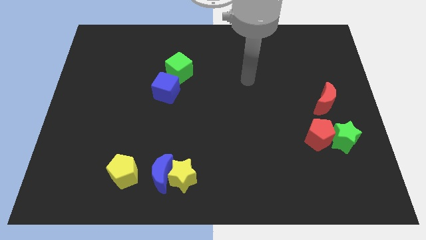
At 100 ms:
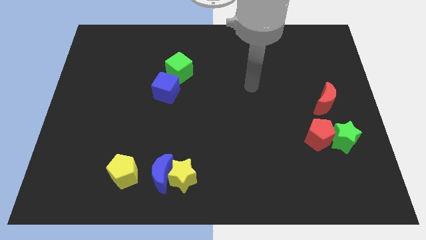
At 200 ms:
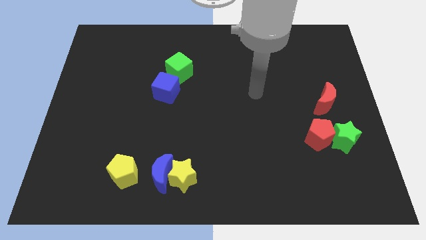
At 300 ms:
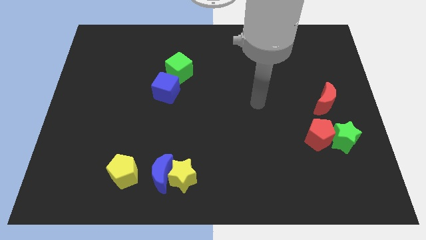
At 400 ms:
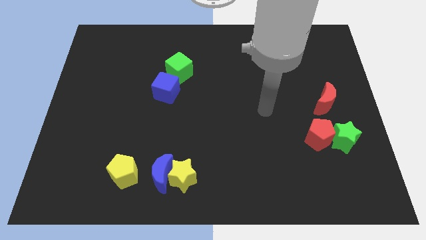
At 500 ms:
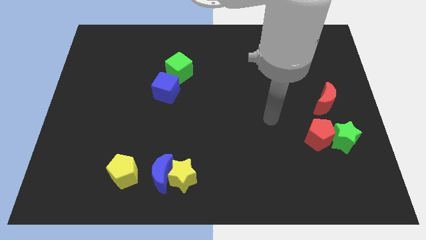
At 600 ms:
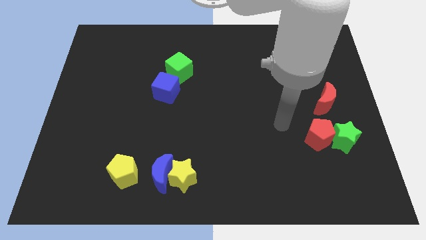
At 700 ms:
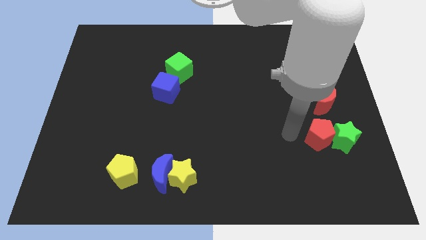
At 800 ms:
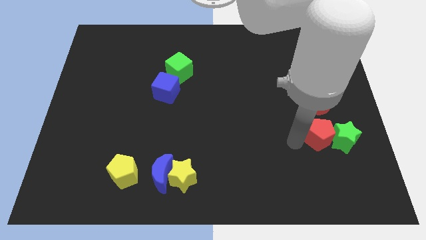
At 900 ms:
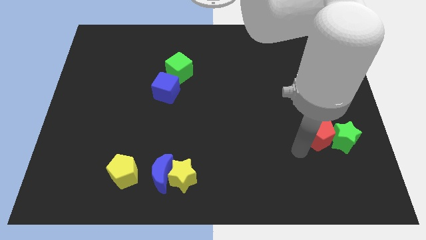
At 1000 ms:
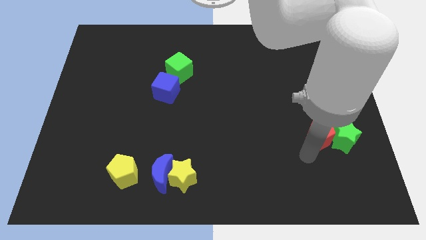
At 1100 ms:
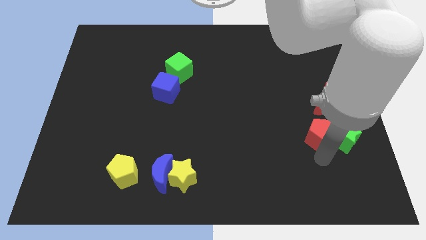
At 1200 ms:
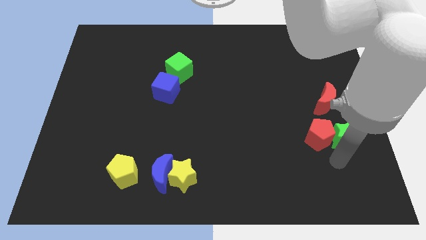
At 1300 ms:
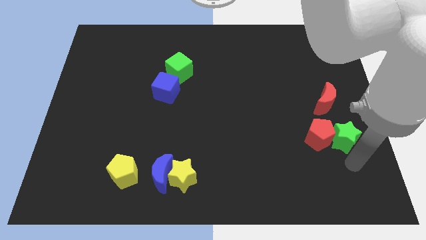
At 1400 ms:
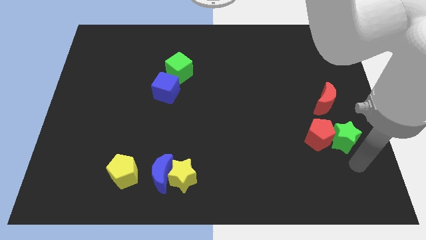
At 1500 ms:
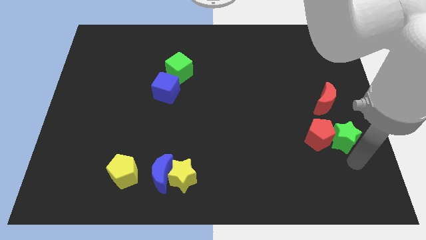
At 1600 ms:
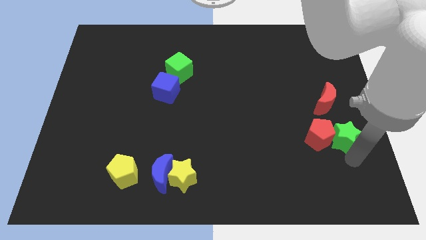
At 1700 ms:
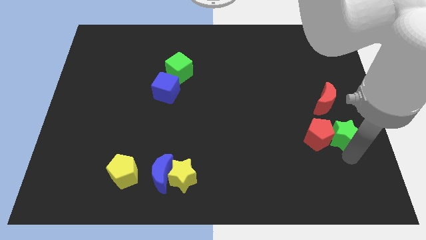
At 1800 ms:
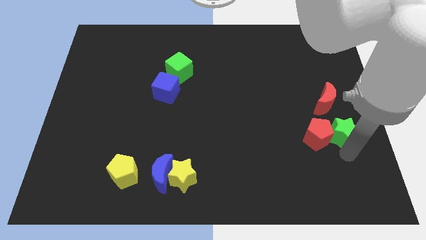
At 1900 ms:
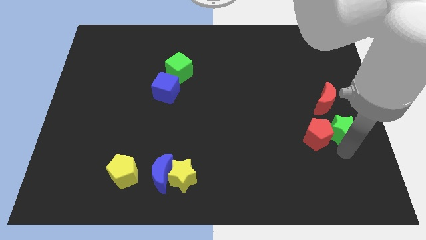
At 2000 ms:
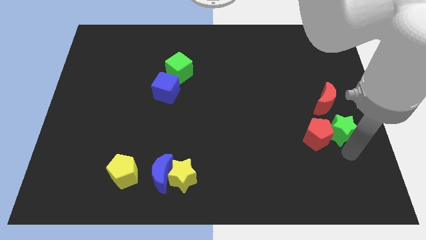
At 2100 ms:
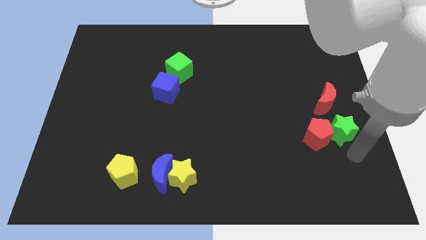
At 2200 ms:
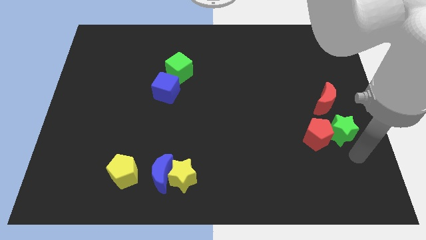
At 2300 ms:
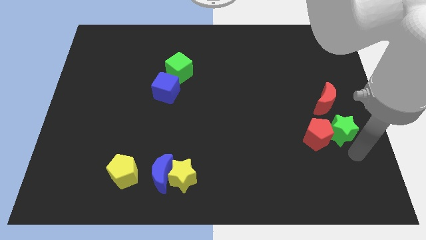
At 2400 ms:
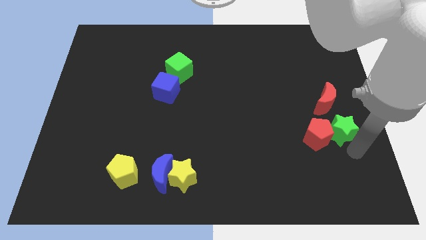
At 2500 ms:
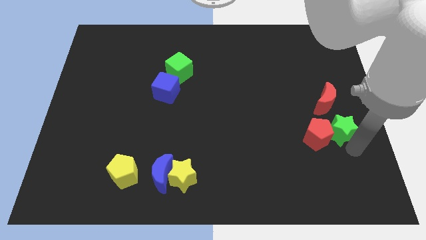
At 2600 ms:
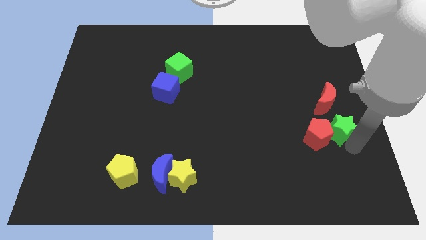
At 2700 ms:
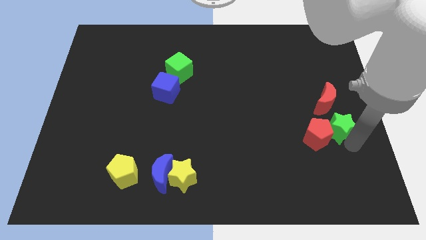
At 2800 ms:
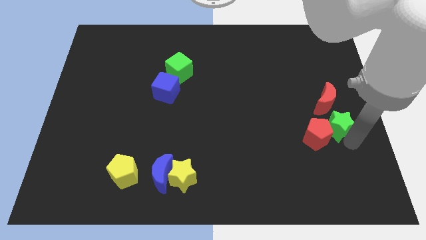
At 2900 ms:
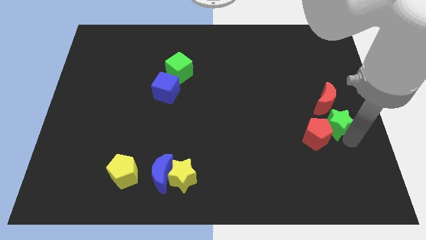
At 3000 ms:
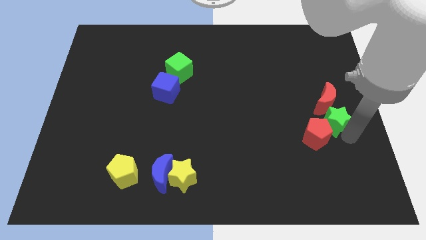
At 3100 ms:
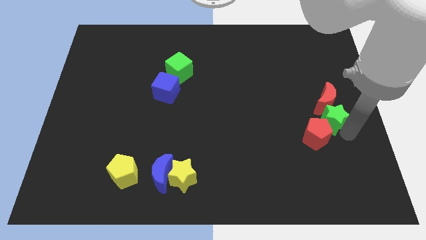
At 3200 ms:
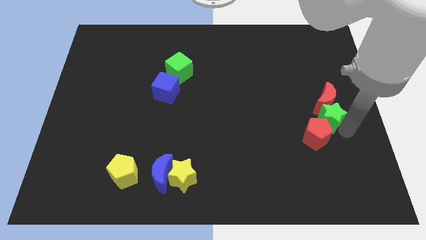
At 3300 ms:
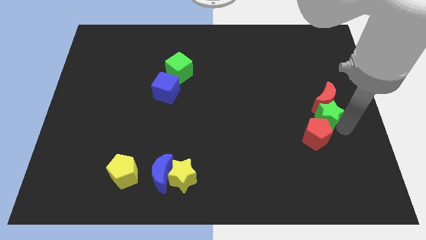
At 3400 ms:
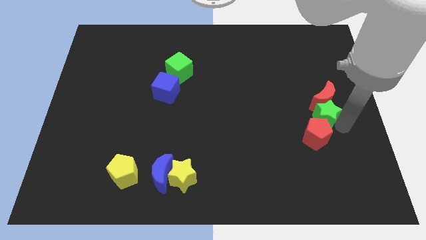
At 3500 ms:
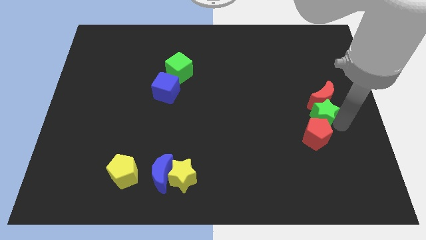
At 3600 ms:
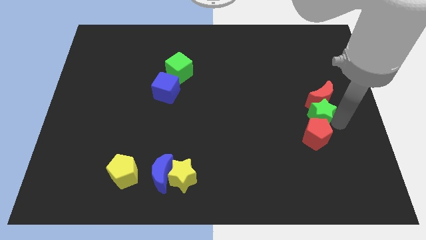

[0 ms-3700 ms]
slightly slide the green star diagonally upwards and to the left

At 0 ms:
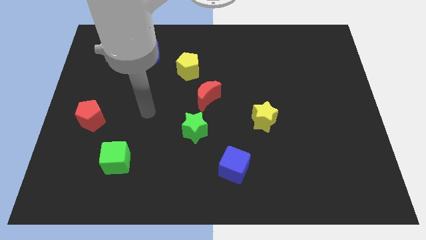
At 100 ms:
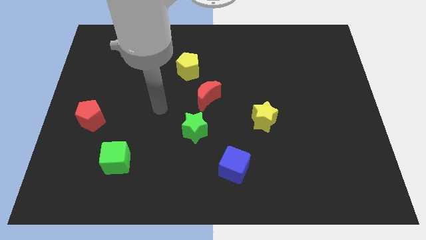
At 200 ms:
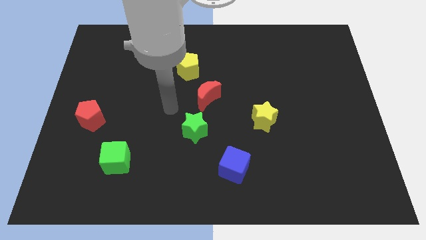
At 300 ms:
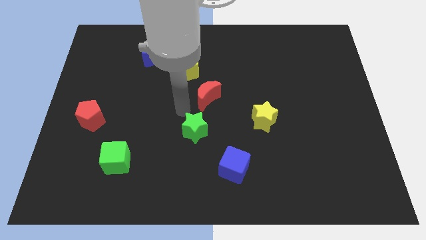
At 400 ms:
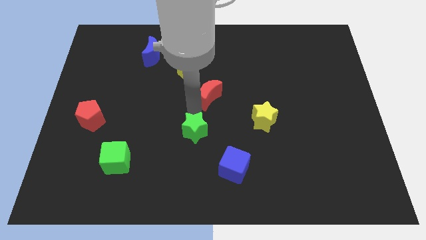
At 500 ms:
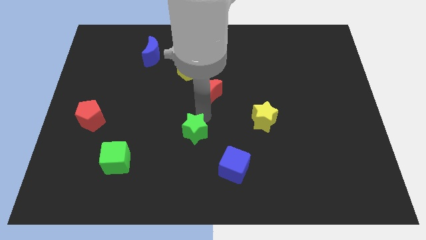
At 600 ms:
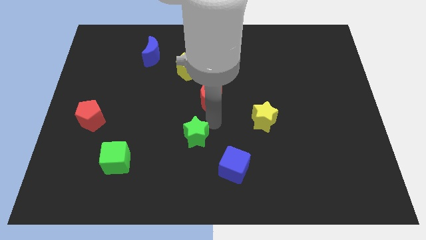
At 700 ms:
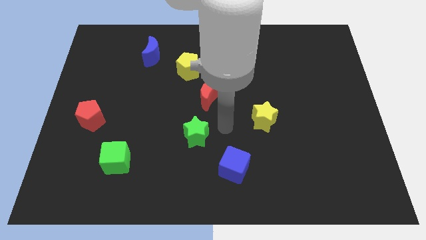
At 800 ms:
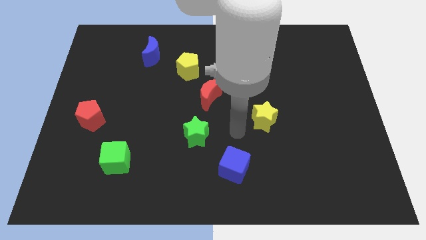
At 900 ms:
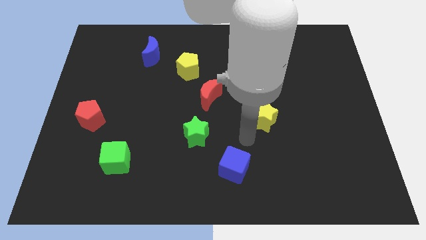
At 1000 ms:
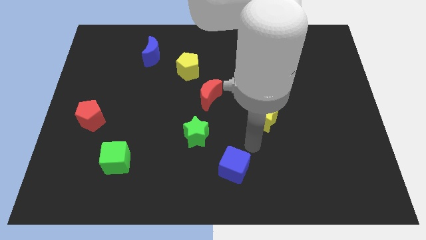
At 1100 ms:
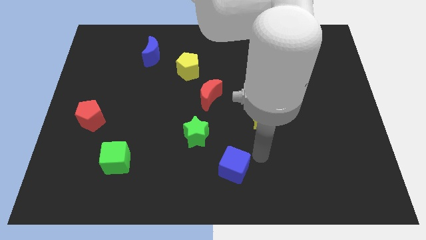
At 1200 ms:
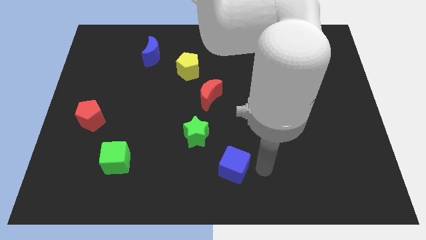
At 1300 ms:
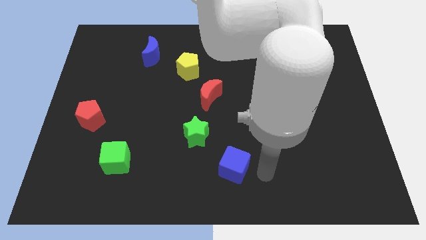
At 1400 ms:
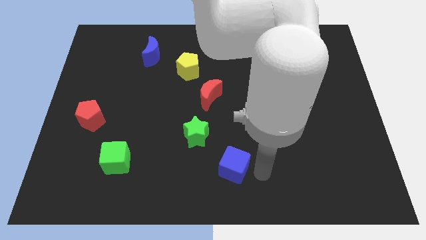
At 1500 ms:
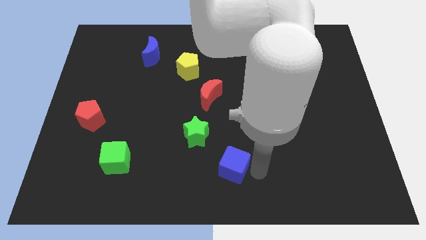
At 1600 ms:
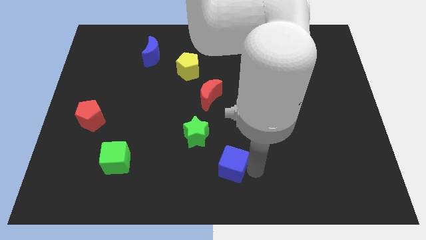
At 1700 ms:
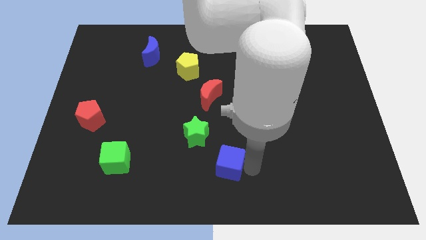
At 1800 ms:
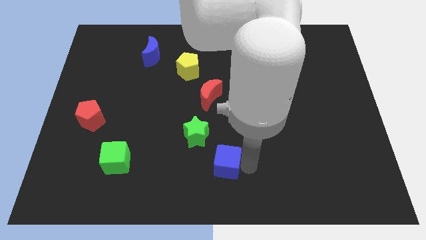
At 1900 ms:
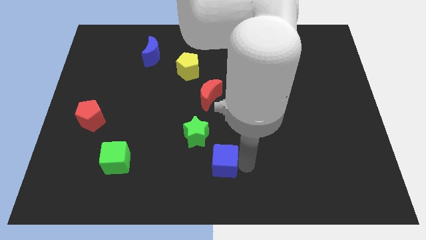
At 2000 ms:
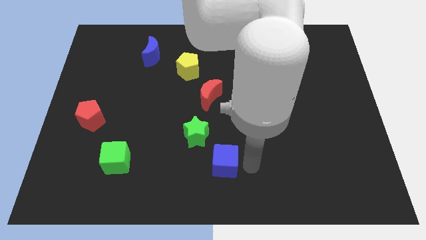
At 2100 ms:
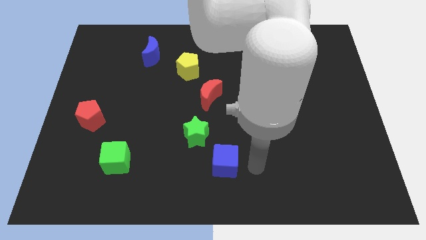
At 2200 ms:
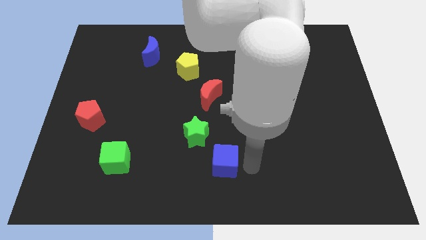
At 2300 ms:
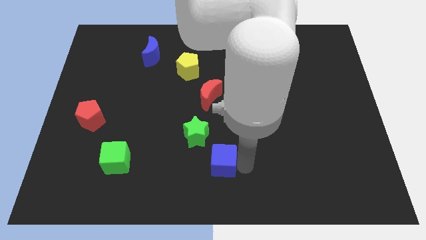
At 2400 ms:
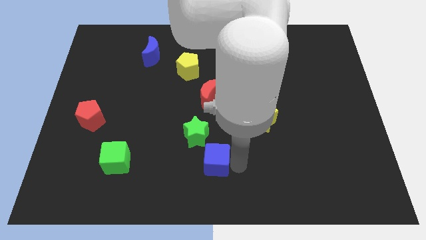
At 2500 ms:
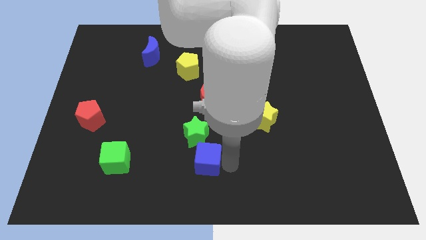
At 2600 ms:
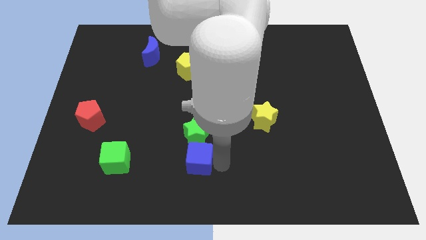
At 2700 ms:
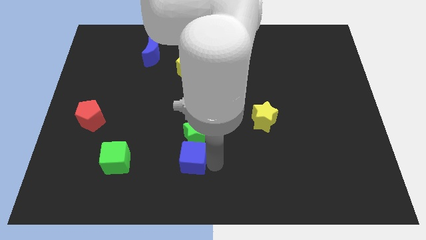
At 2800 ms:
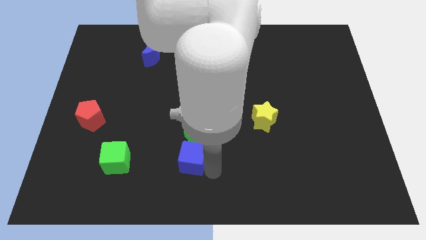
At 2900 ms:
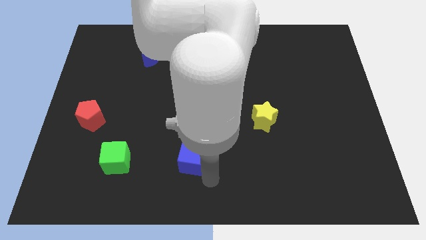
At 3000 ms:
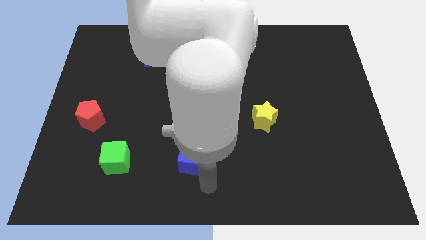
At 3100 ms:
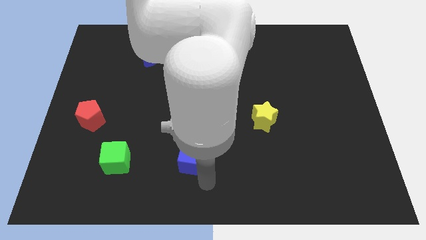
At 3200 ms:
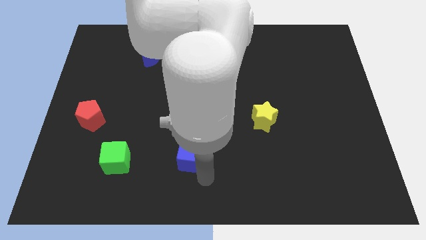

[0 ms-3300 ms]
move the blue cube a little diagonally up and left

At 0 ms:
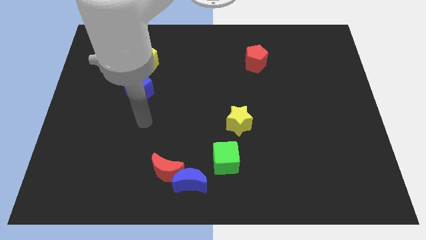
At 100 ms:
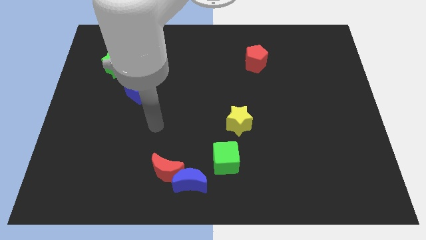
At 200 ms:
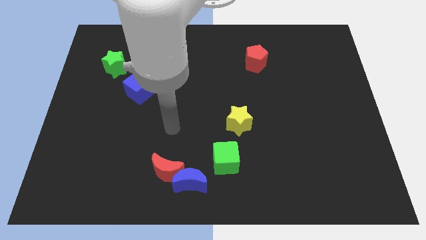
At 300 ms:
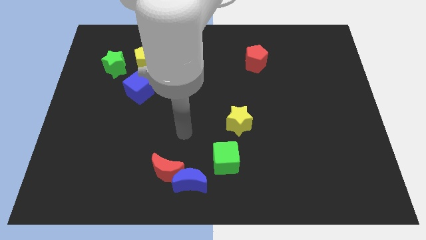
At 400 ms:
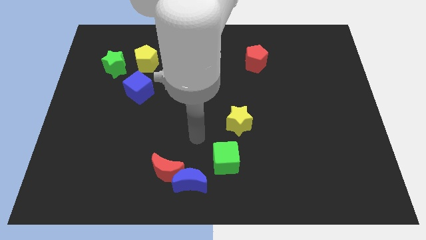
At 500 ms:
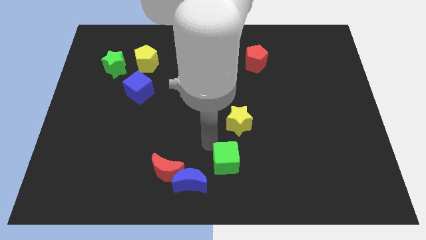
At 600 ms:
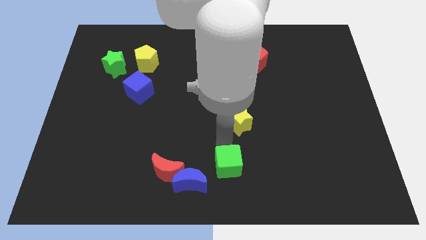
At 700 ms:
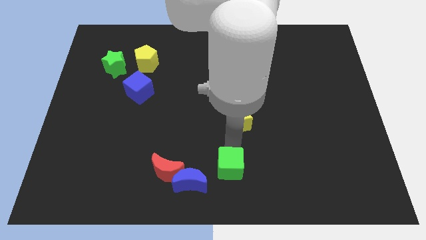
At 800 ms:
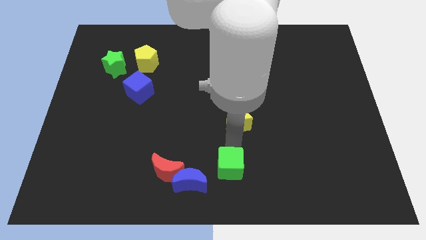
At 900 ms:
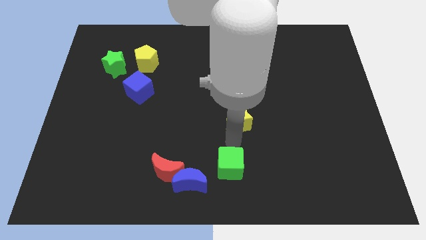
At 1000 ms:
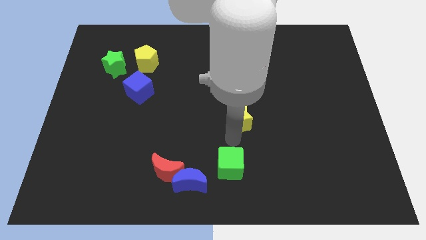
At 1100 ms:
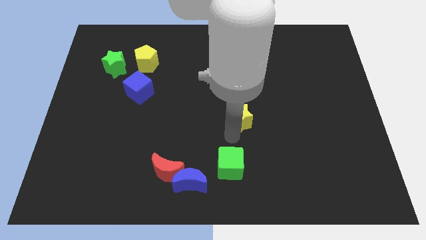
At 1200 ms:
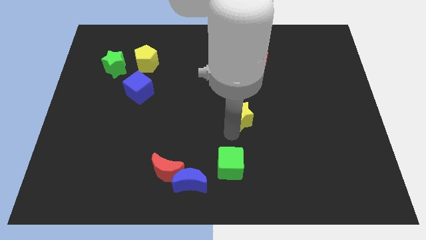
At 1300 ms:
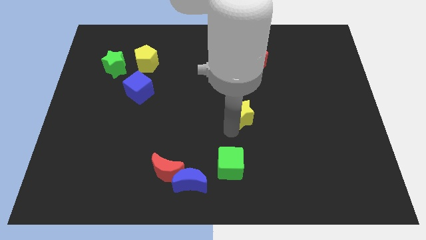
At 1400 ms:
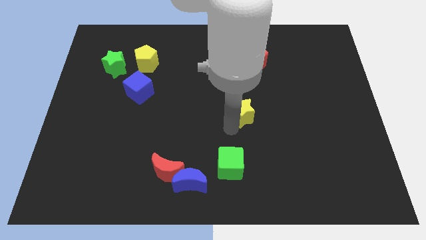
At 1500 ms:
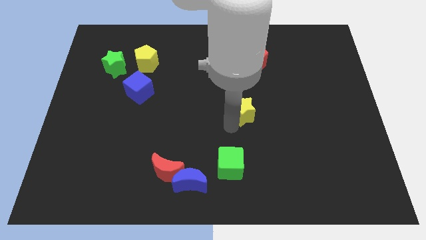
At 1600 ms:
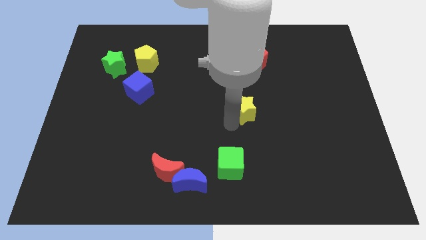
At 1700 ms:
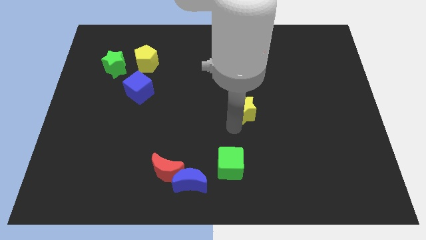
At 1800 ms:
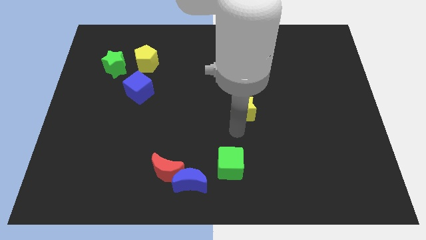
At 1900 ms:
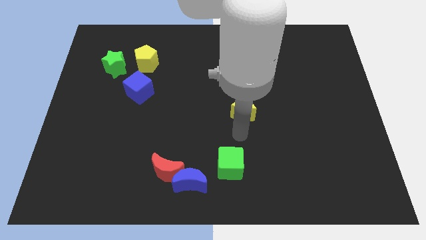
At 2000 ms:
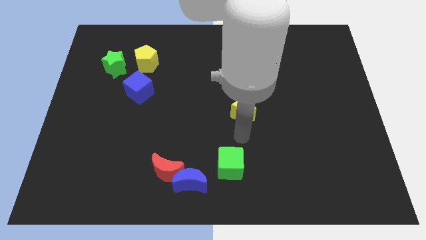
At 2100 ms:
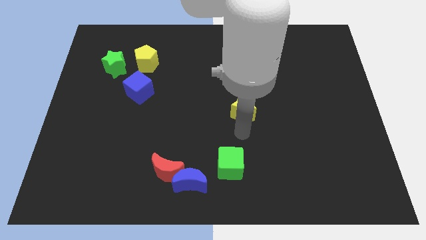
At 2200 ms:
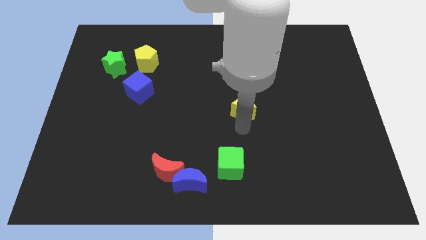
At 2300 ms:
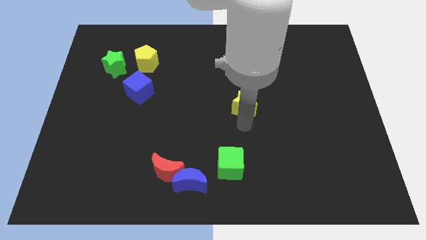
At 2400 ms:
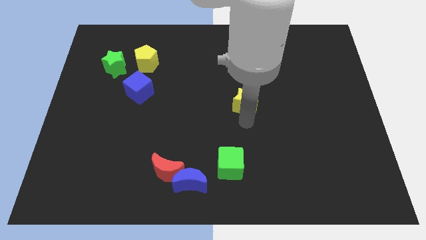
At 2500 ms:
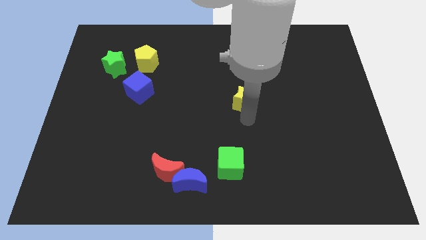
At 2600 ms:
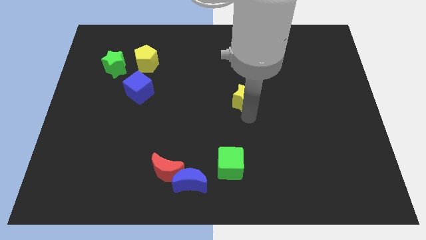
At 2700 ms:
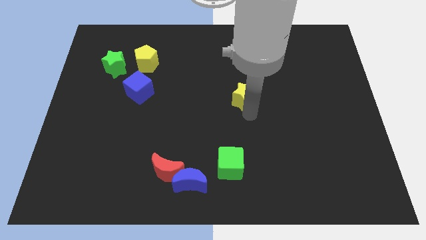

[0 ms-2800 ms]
push the yellow star a bit up
